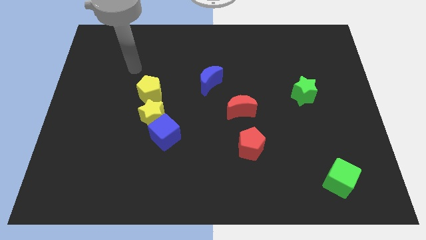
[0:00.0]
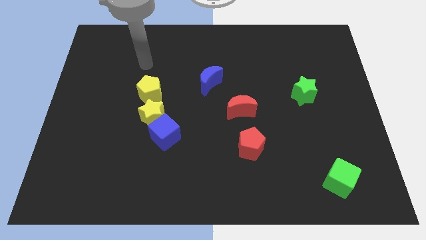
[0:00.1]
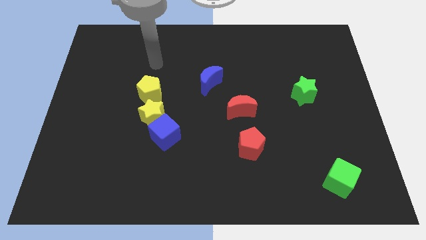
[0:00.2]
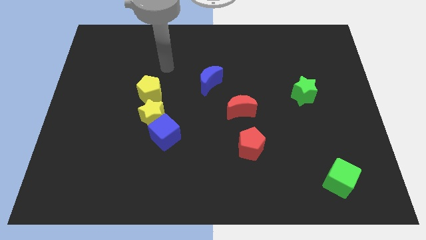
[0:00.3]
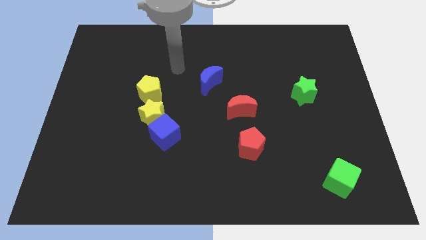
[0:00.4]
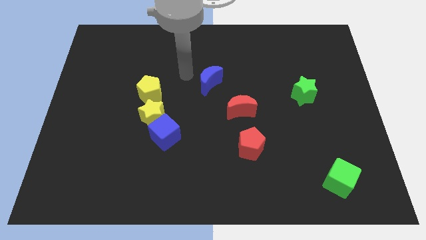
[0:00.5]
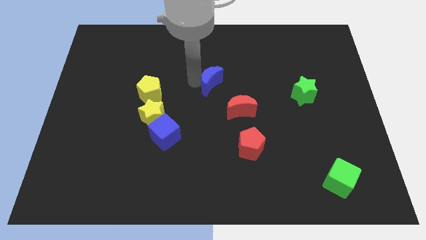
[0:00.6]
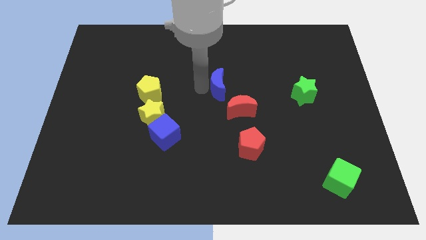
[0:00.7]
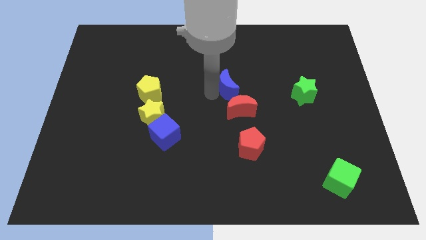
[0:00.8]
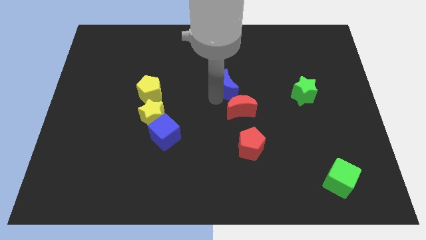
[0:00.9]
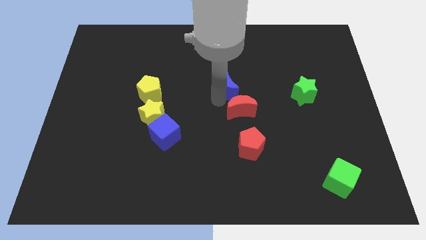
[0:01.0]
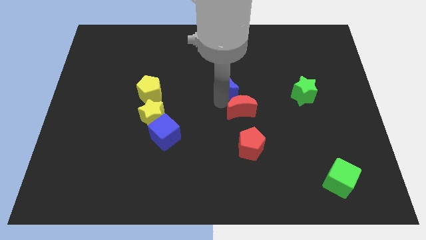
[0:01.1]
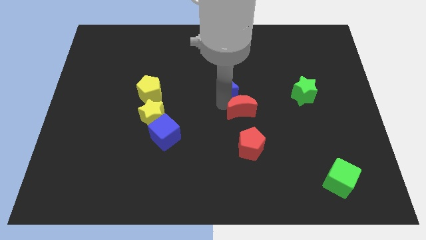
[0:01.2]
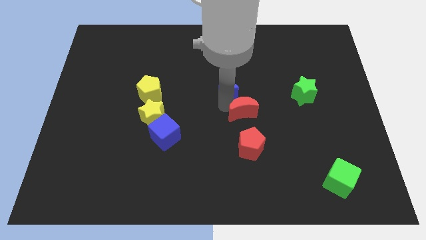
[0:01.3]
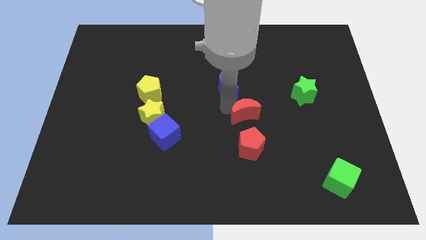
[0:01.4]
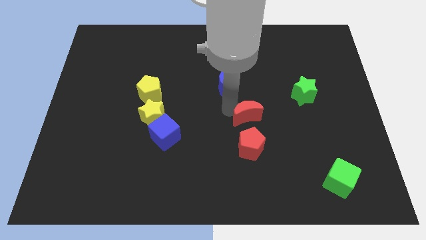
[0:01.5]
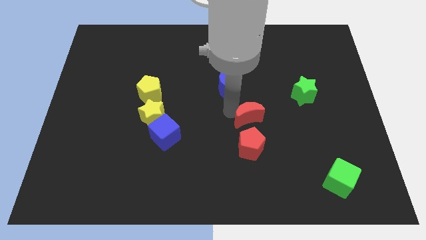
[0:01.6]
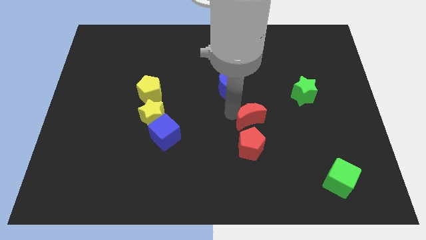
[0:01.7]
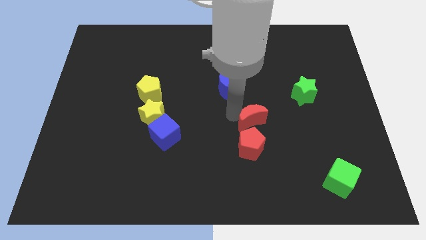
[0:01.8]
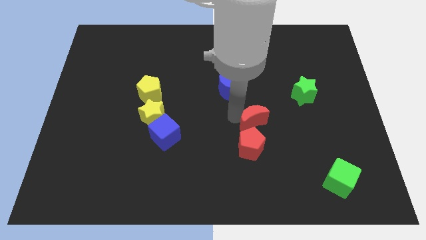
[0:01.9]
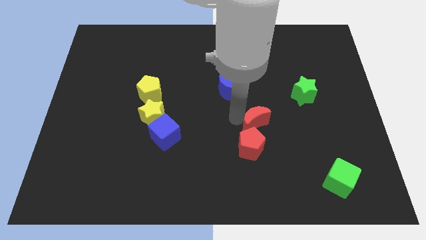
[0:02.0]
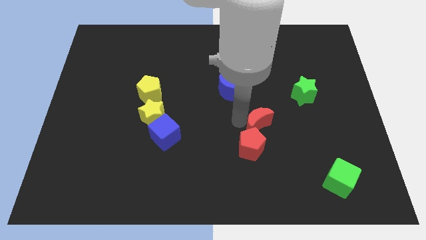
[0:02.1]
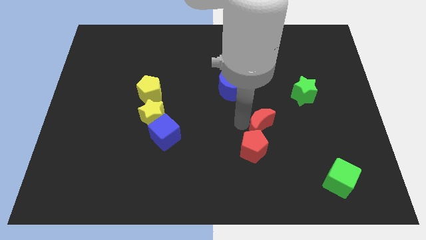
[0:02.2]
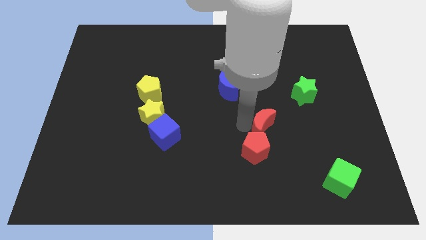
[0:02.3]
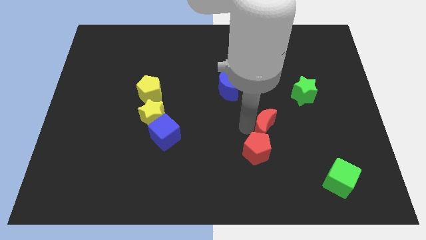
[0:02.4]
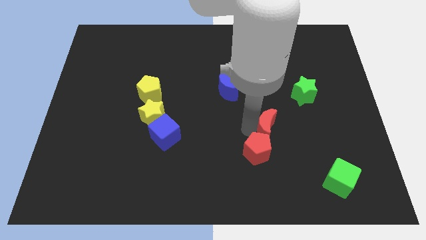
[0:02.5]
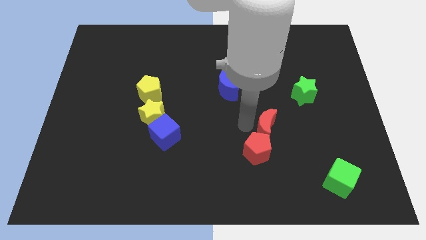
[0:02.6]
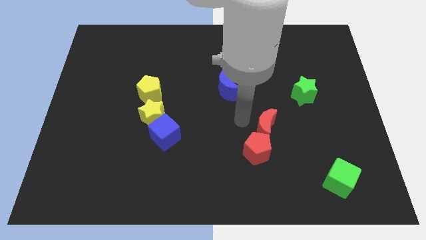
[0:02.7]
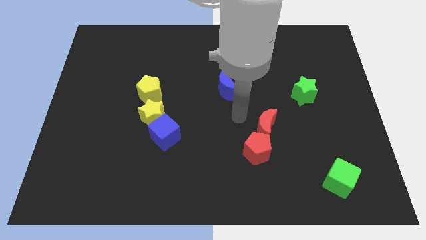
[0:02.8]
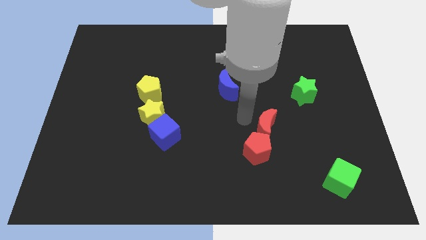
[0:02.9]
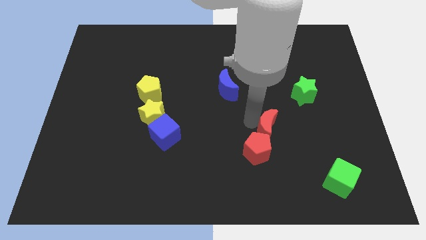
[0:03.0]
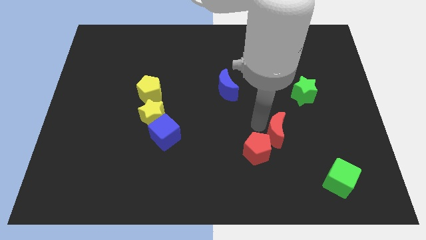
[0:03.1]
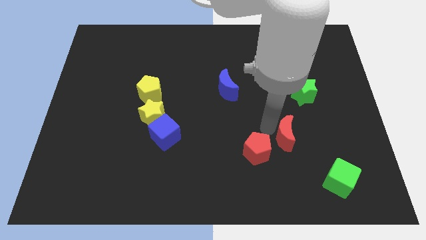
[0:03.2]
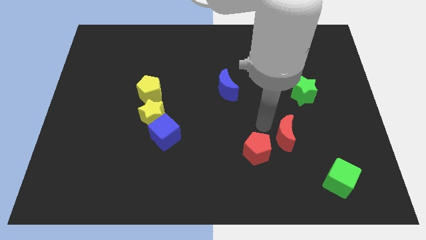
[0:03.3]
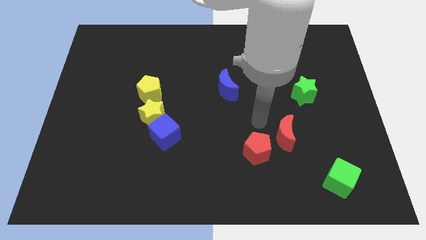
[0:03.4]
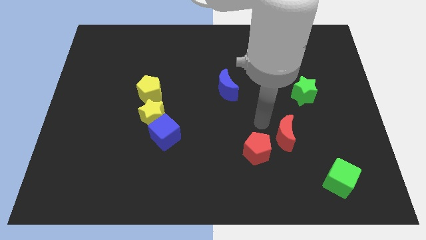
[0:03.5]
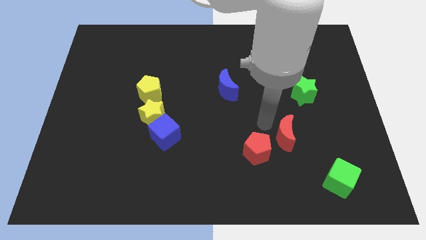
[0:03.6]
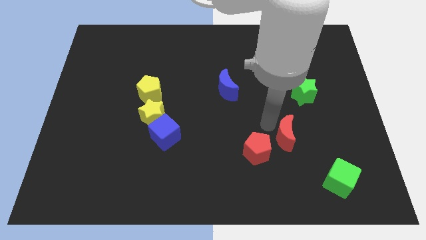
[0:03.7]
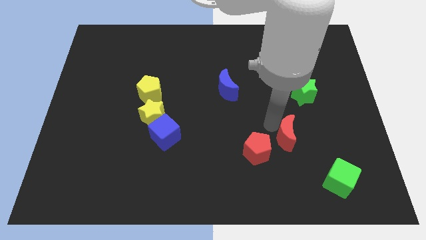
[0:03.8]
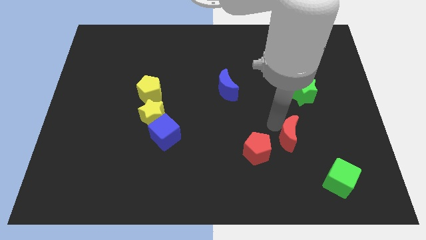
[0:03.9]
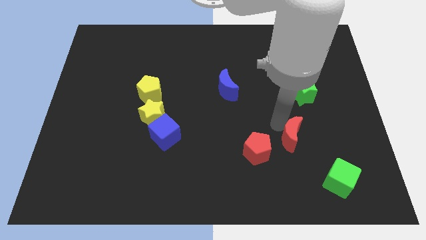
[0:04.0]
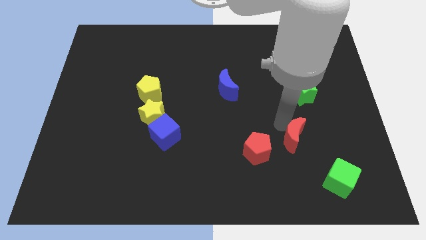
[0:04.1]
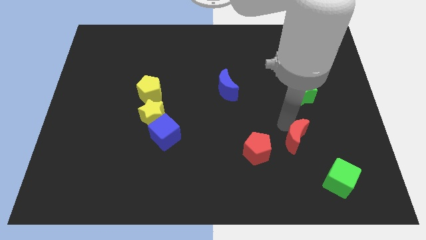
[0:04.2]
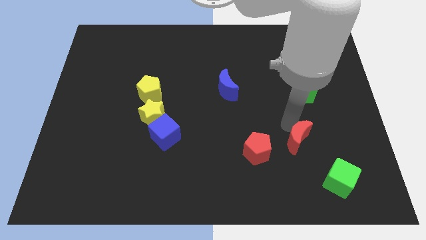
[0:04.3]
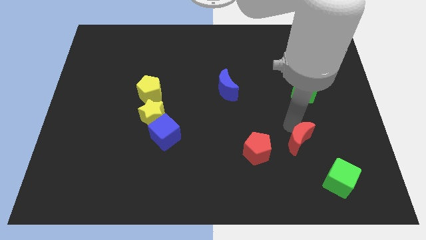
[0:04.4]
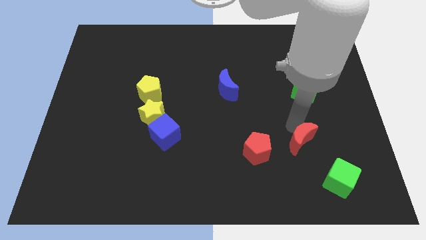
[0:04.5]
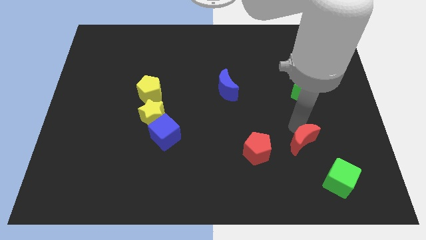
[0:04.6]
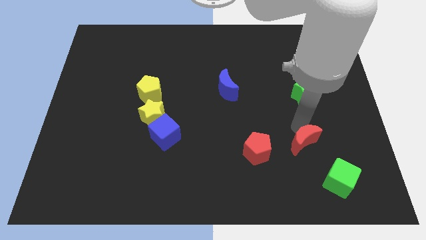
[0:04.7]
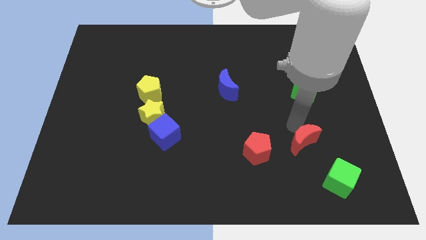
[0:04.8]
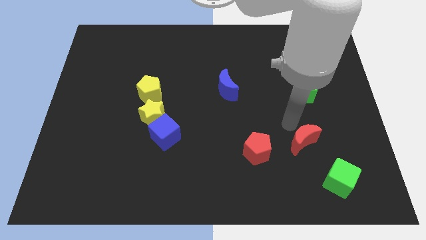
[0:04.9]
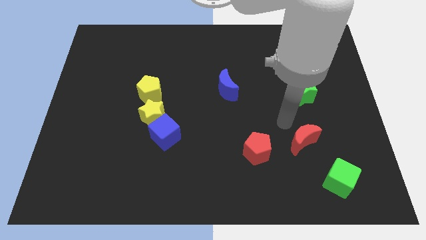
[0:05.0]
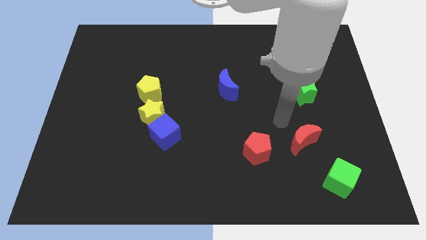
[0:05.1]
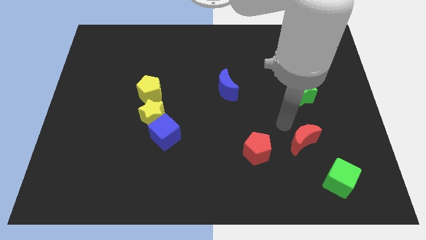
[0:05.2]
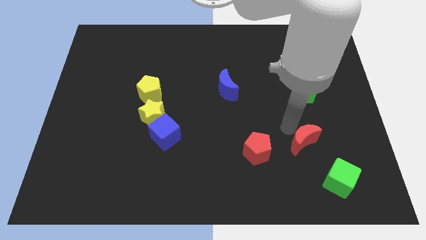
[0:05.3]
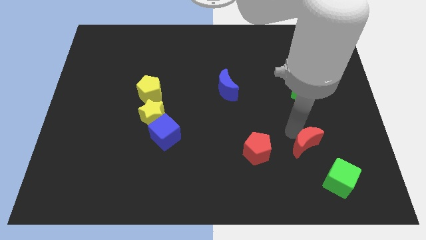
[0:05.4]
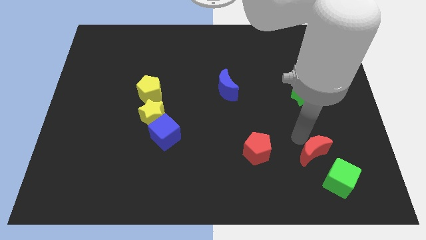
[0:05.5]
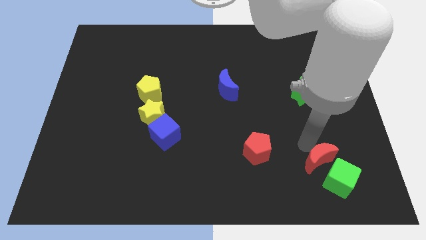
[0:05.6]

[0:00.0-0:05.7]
put the red moon towards the green cube

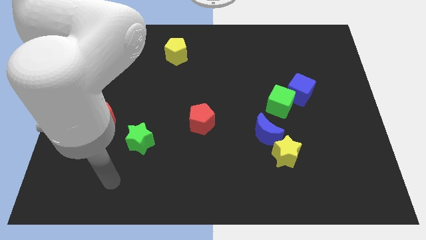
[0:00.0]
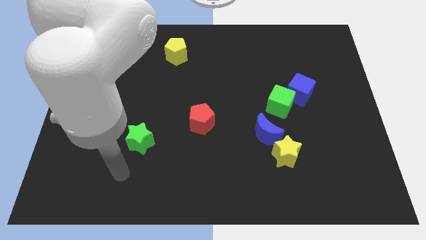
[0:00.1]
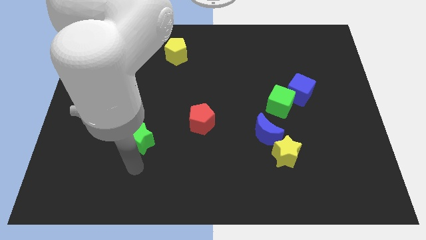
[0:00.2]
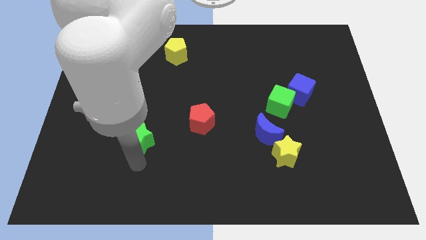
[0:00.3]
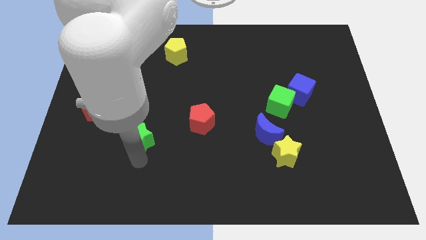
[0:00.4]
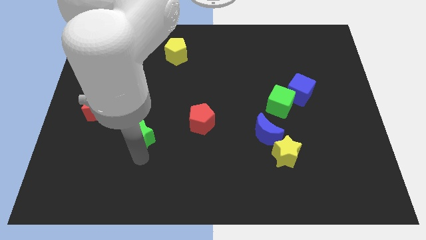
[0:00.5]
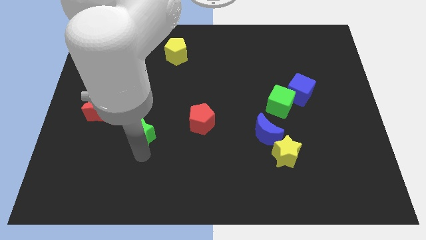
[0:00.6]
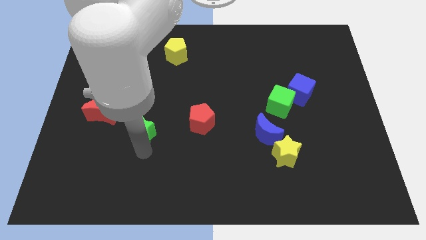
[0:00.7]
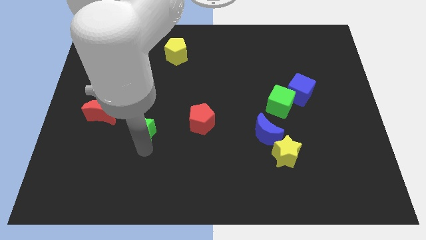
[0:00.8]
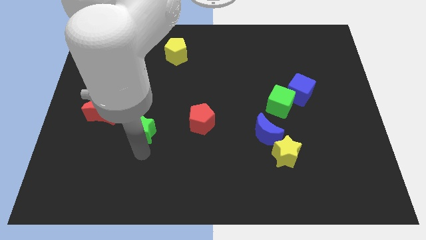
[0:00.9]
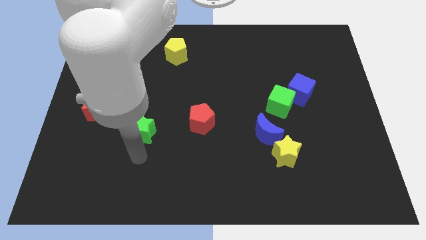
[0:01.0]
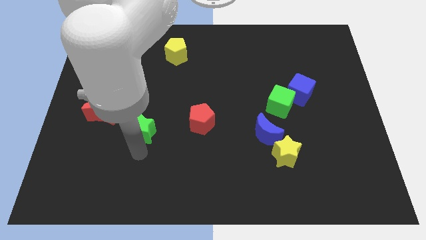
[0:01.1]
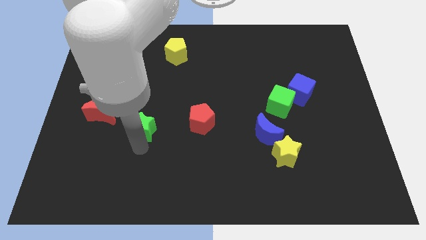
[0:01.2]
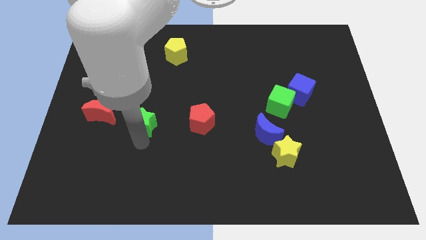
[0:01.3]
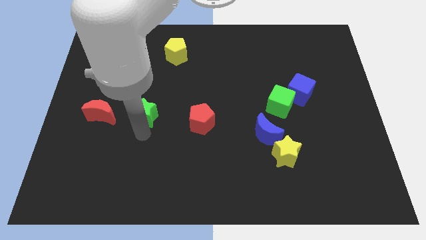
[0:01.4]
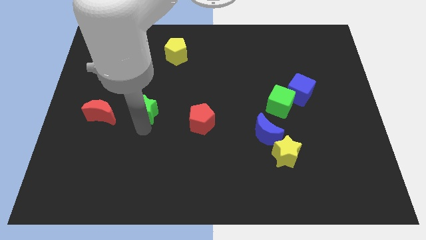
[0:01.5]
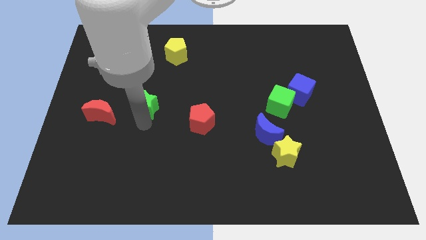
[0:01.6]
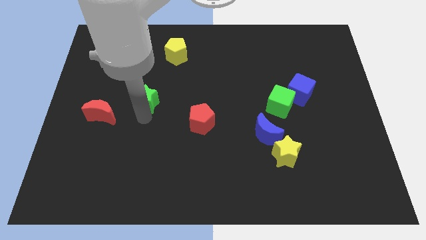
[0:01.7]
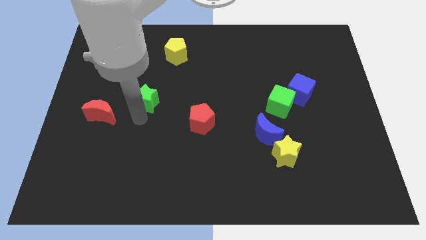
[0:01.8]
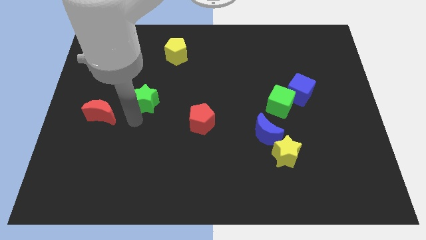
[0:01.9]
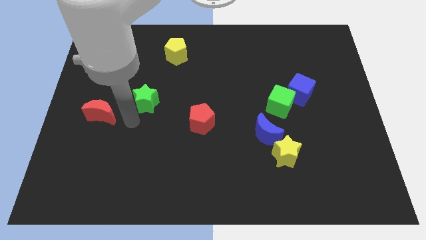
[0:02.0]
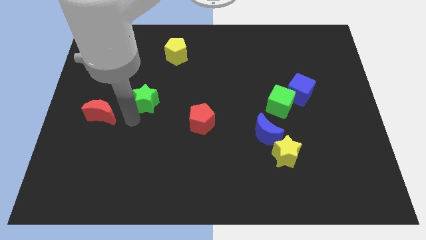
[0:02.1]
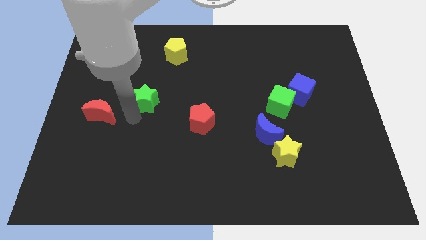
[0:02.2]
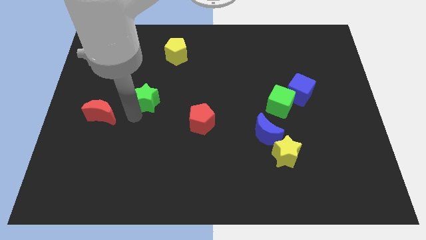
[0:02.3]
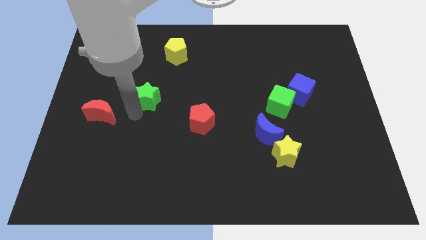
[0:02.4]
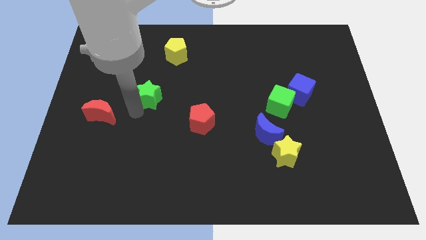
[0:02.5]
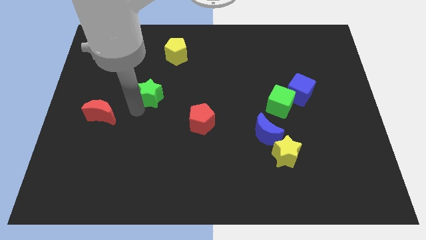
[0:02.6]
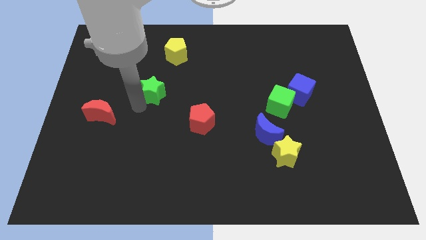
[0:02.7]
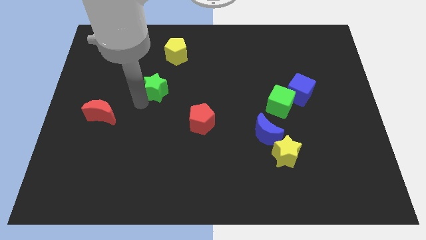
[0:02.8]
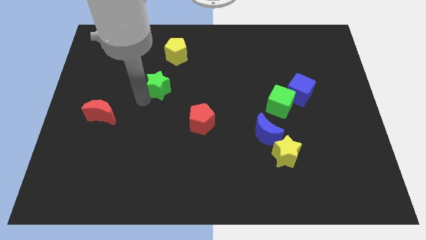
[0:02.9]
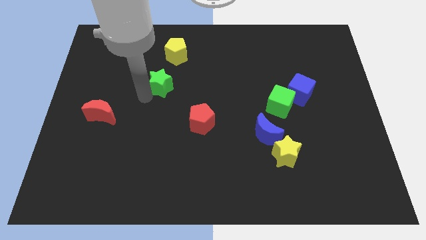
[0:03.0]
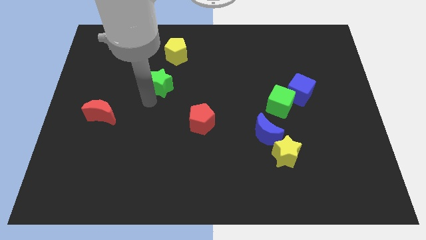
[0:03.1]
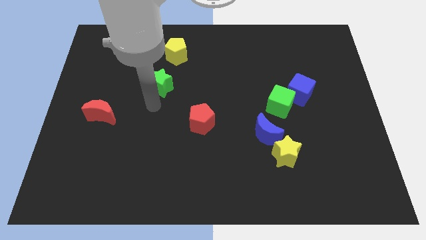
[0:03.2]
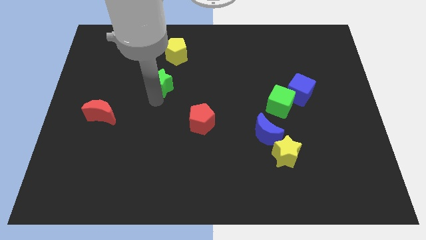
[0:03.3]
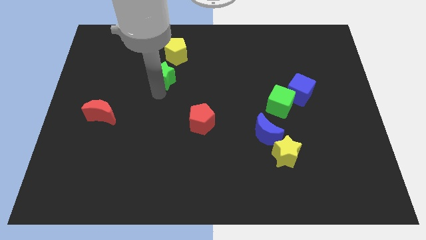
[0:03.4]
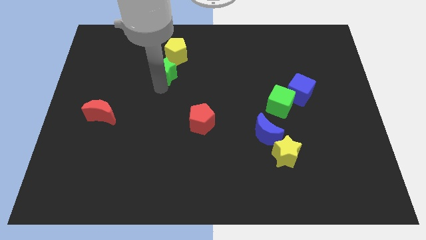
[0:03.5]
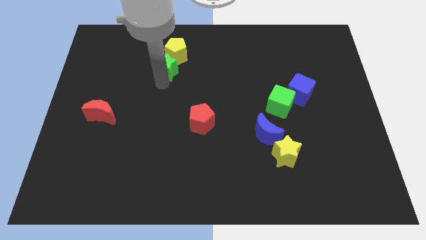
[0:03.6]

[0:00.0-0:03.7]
slide the green star next to the yellow pentagon
